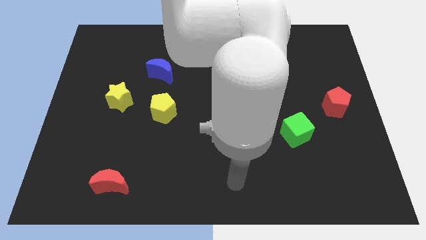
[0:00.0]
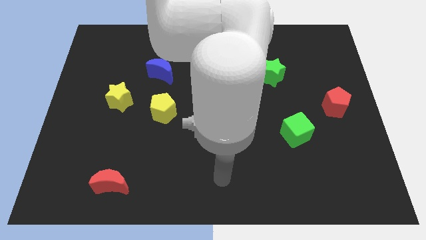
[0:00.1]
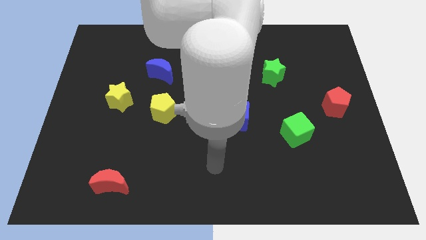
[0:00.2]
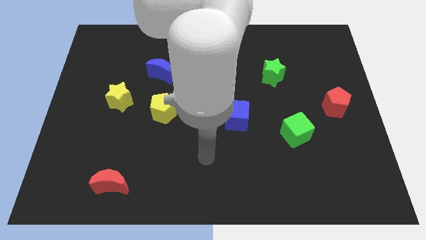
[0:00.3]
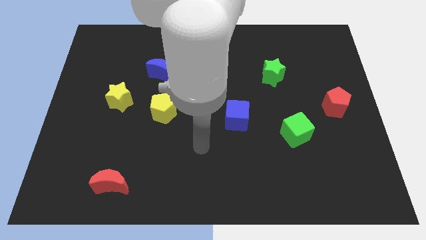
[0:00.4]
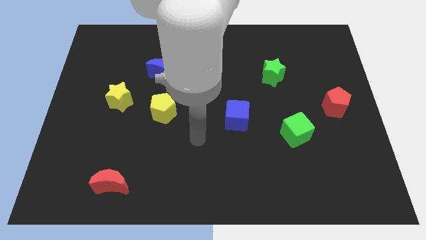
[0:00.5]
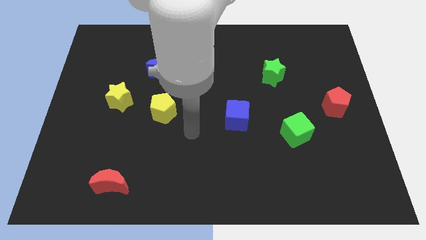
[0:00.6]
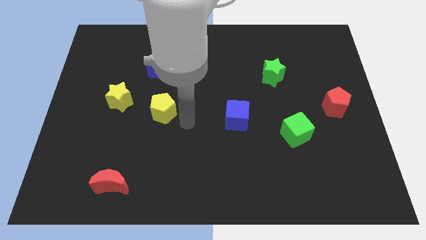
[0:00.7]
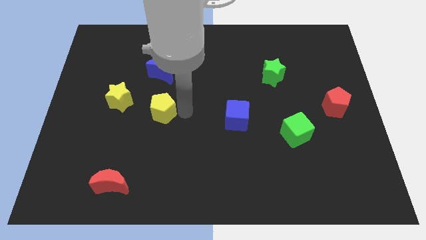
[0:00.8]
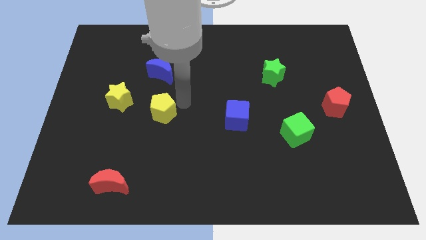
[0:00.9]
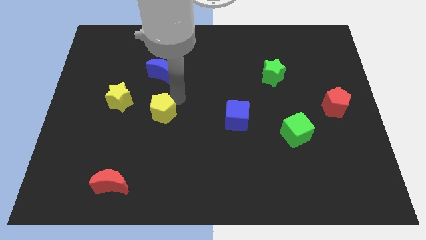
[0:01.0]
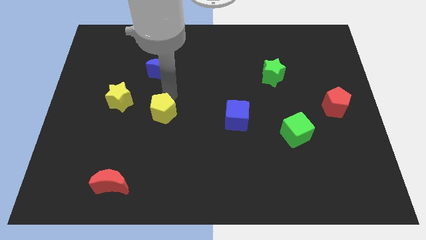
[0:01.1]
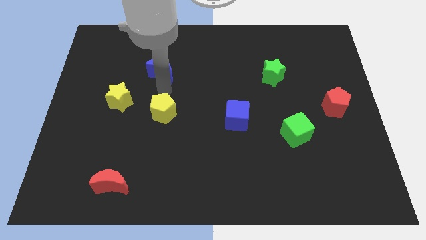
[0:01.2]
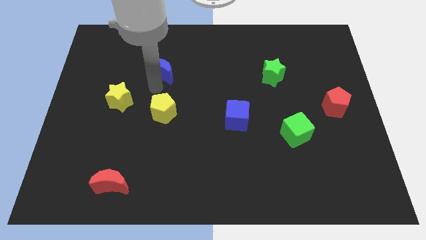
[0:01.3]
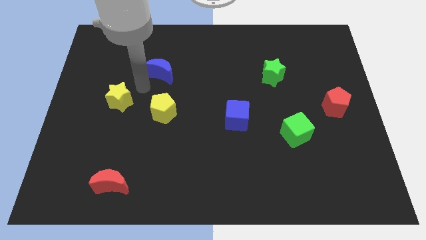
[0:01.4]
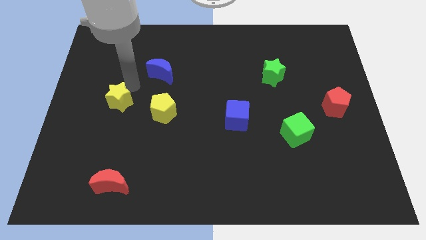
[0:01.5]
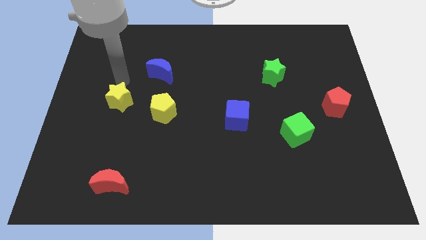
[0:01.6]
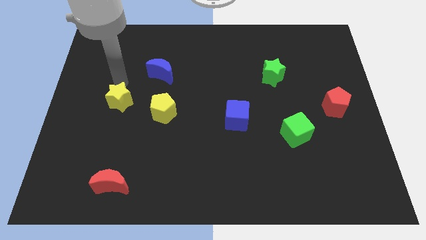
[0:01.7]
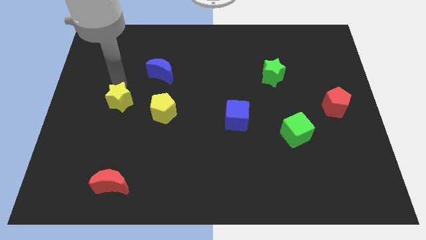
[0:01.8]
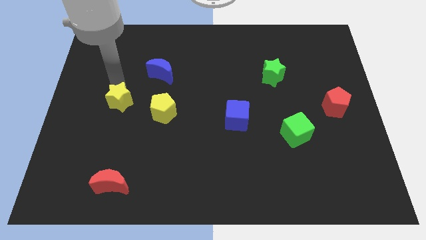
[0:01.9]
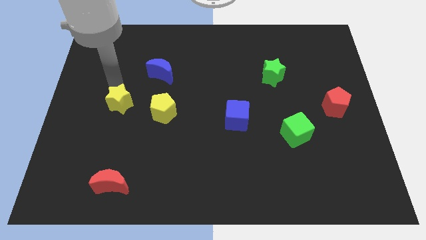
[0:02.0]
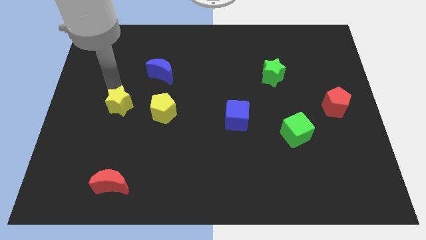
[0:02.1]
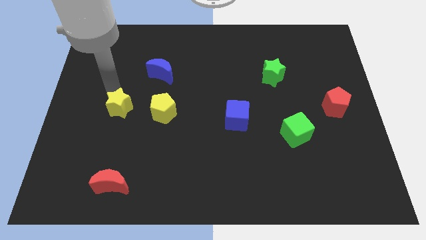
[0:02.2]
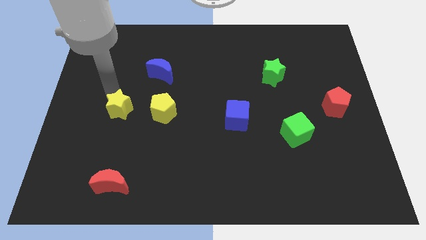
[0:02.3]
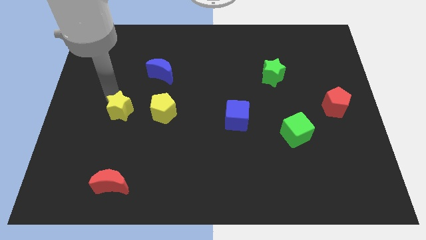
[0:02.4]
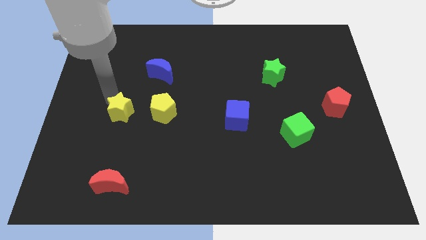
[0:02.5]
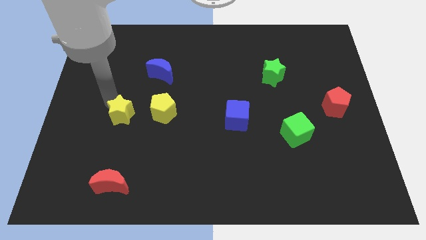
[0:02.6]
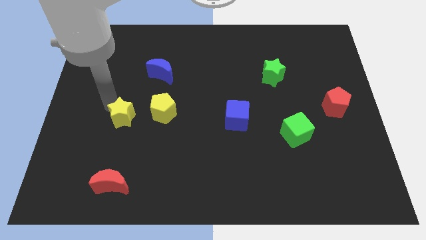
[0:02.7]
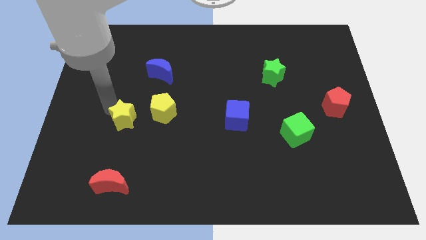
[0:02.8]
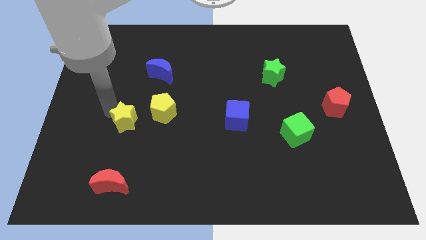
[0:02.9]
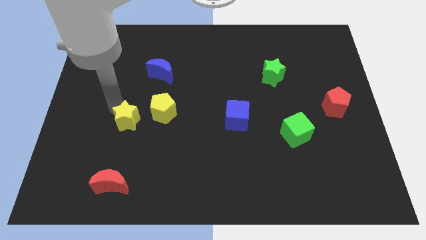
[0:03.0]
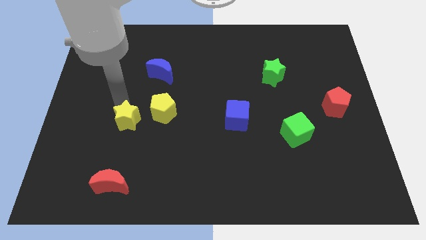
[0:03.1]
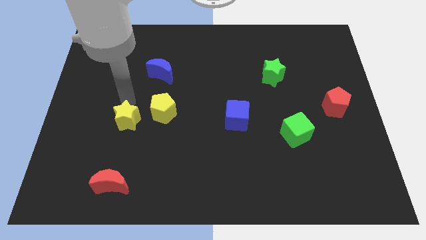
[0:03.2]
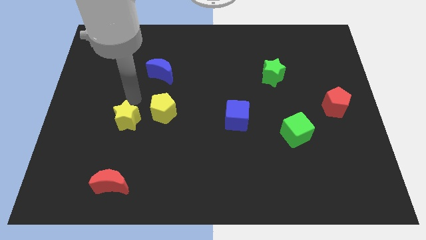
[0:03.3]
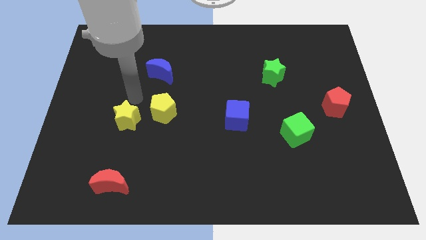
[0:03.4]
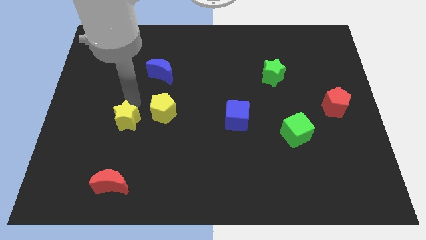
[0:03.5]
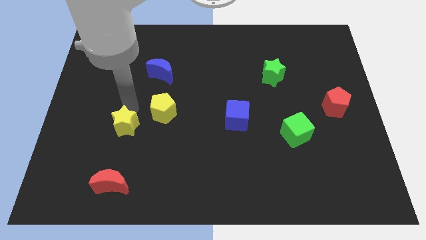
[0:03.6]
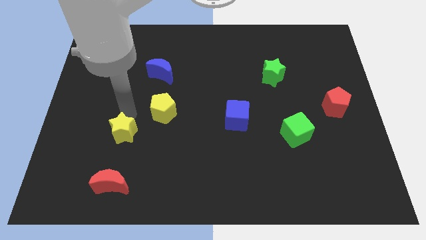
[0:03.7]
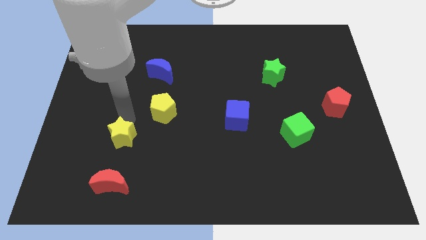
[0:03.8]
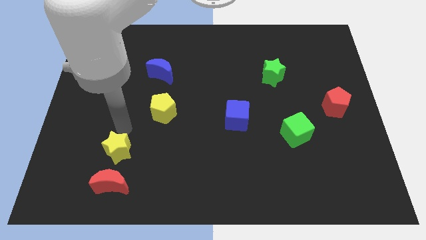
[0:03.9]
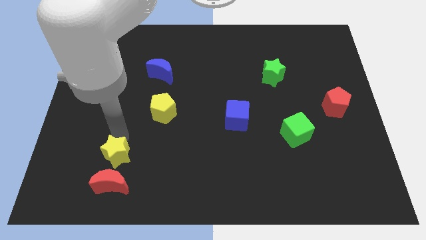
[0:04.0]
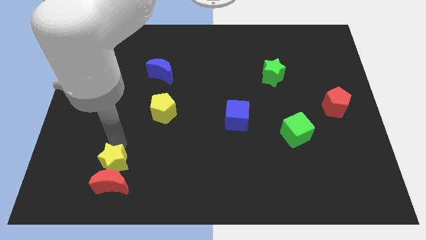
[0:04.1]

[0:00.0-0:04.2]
move the yellow star to the red moon

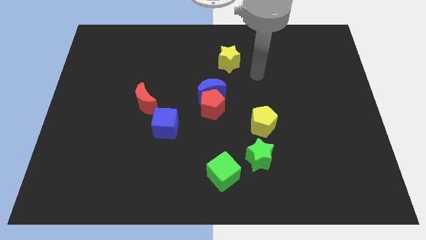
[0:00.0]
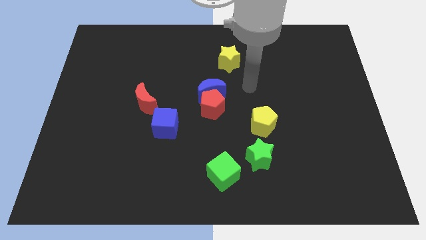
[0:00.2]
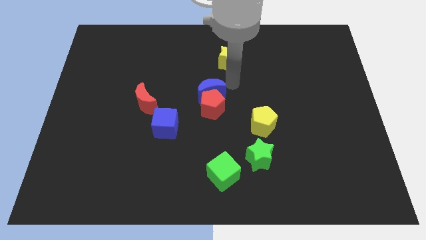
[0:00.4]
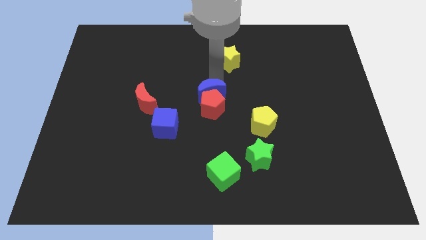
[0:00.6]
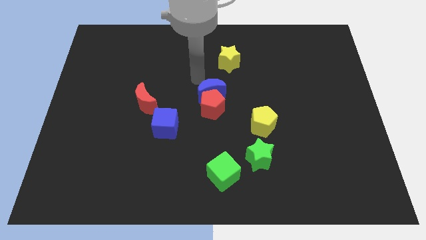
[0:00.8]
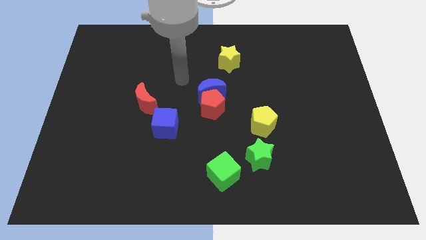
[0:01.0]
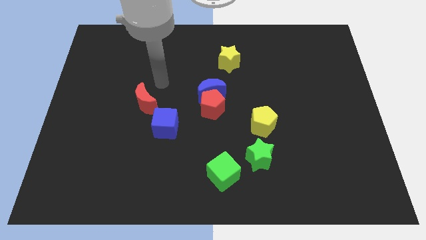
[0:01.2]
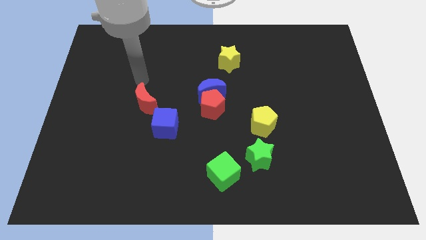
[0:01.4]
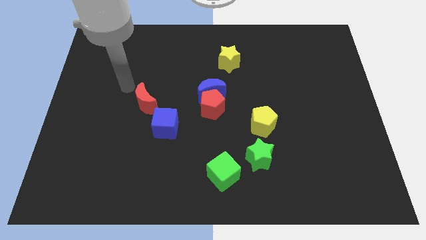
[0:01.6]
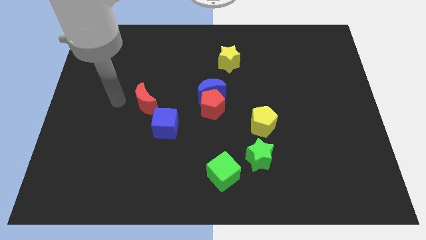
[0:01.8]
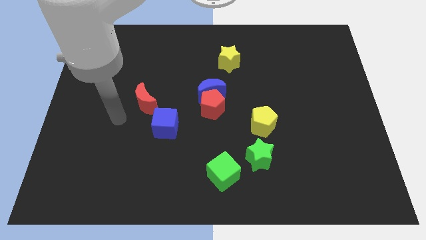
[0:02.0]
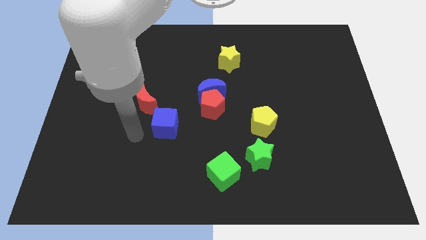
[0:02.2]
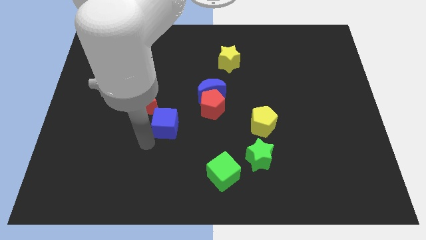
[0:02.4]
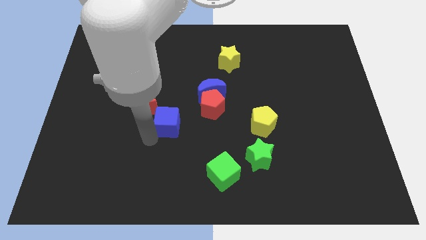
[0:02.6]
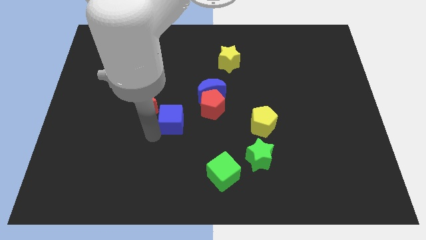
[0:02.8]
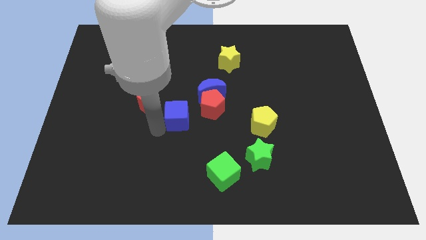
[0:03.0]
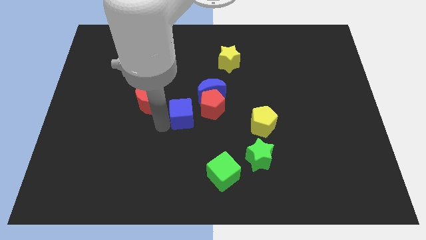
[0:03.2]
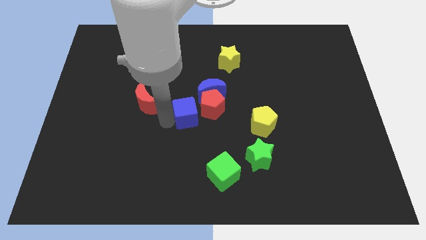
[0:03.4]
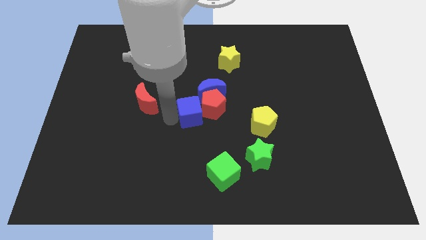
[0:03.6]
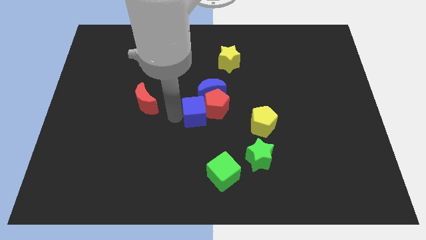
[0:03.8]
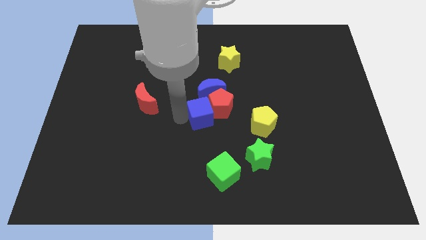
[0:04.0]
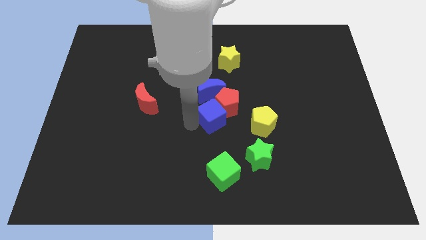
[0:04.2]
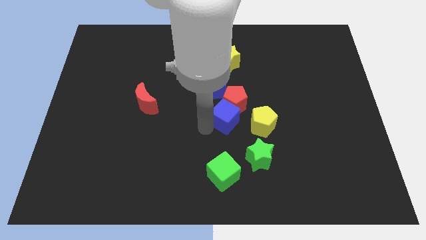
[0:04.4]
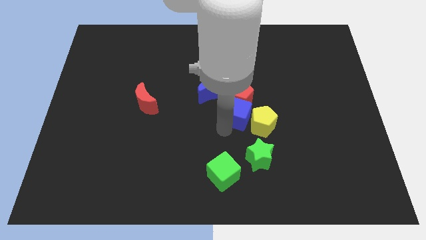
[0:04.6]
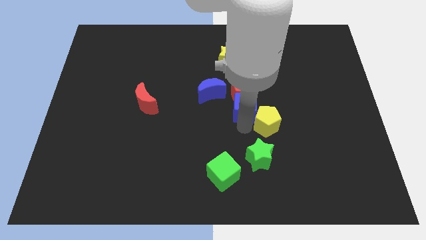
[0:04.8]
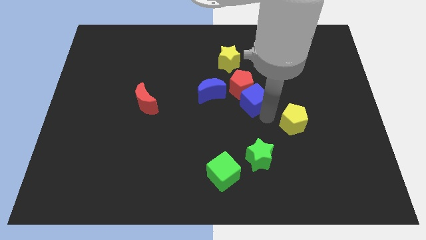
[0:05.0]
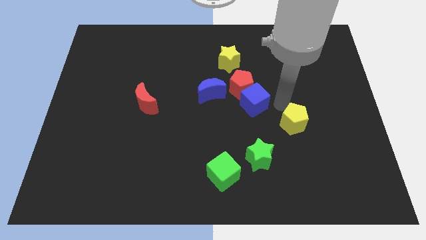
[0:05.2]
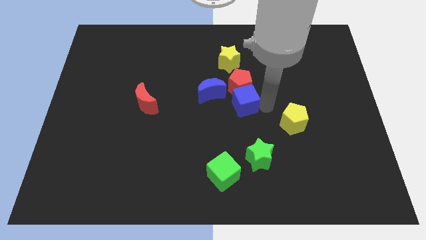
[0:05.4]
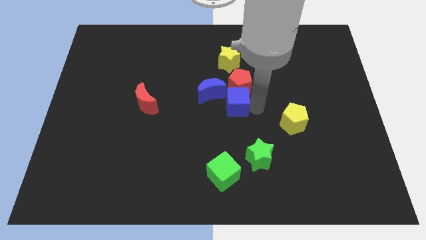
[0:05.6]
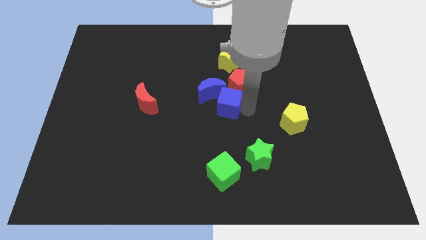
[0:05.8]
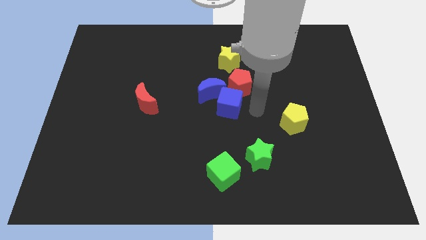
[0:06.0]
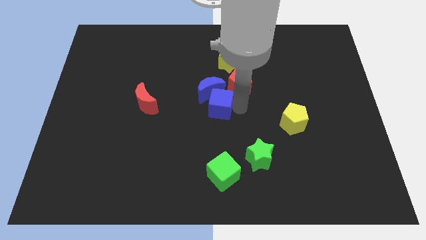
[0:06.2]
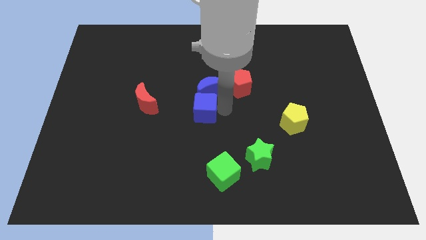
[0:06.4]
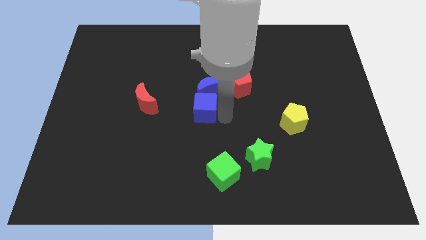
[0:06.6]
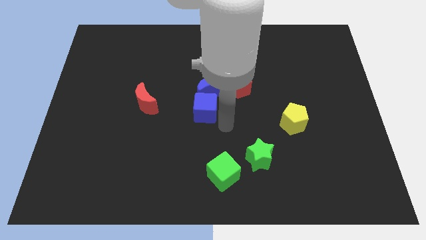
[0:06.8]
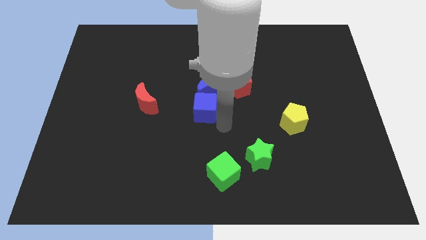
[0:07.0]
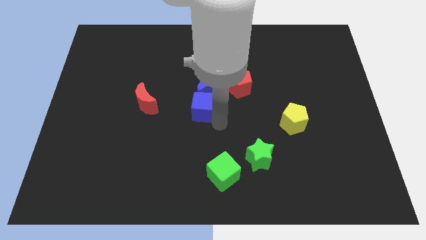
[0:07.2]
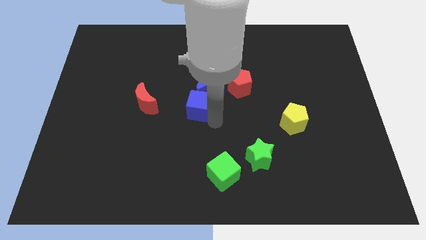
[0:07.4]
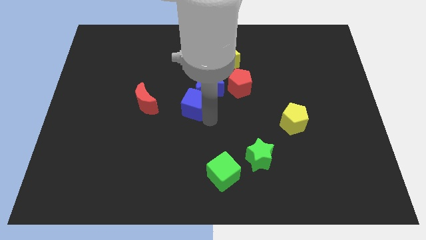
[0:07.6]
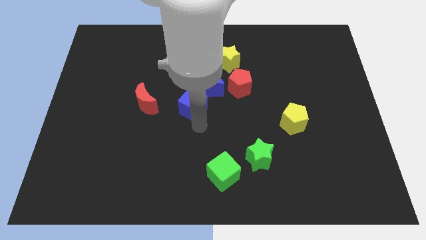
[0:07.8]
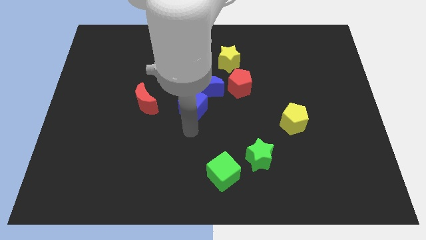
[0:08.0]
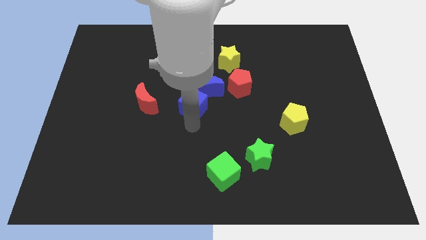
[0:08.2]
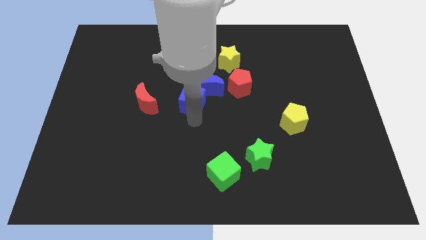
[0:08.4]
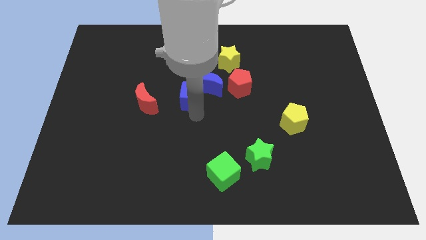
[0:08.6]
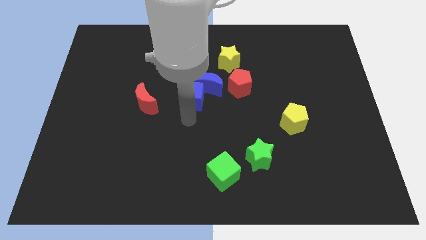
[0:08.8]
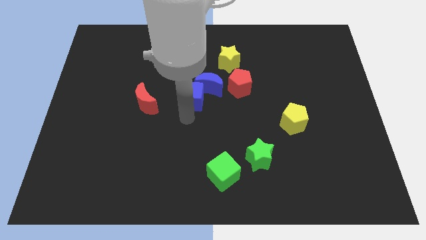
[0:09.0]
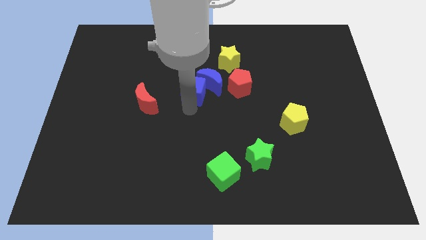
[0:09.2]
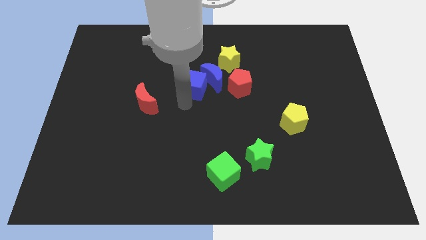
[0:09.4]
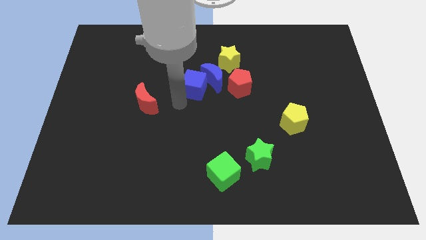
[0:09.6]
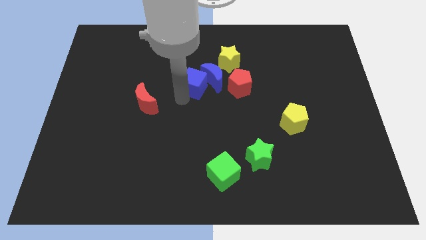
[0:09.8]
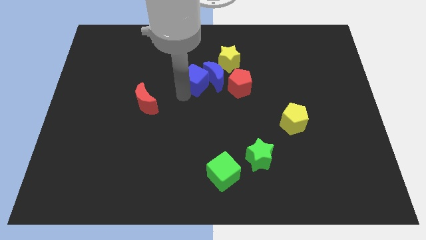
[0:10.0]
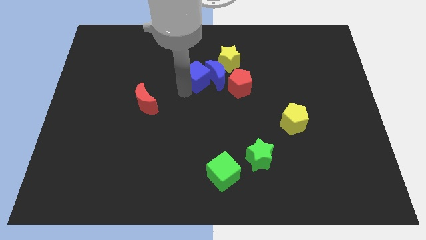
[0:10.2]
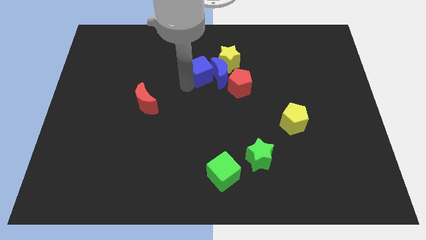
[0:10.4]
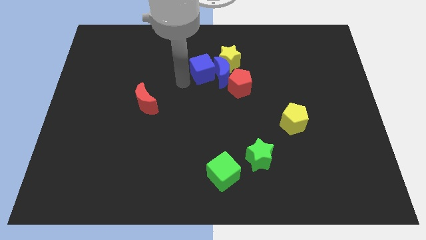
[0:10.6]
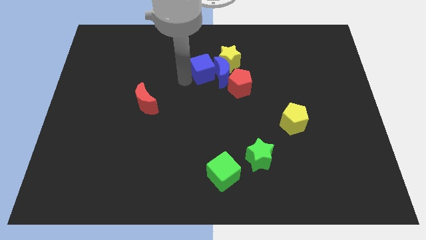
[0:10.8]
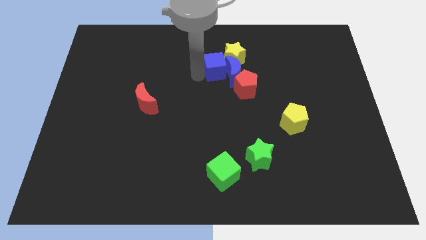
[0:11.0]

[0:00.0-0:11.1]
put the blue cube next to the yellow star
